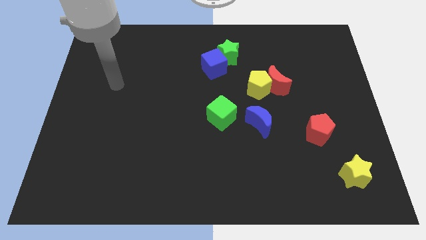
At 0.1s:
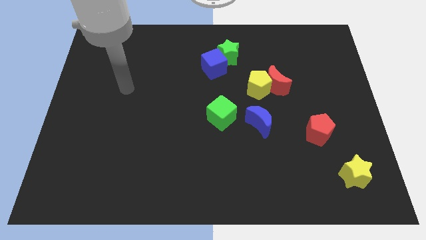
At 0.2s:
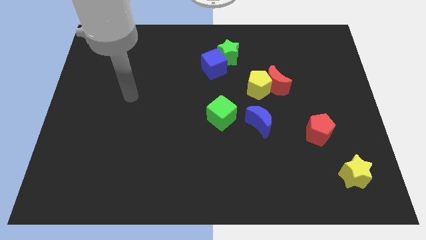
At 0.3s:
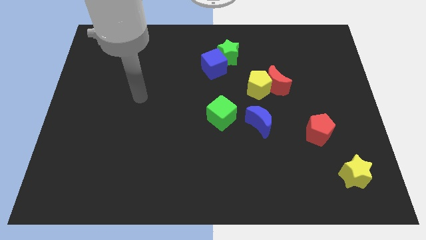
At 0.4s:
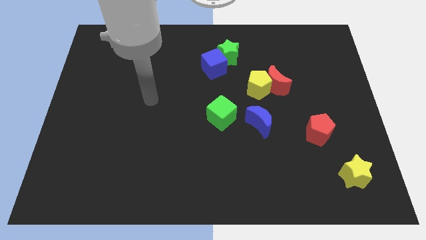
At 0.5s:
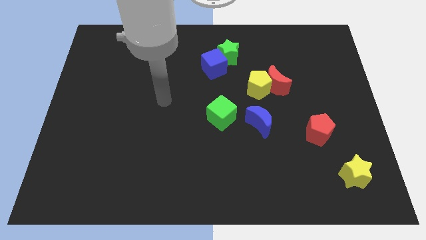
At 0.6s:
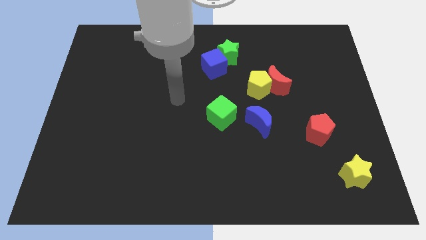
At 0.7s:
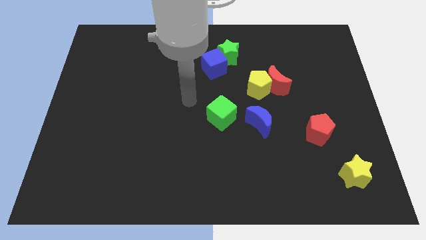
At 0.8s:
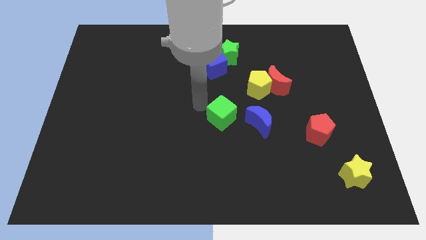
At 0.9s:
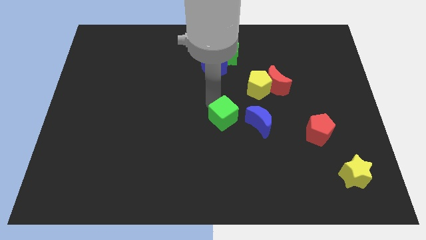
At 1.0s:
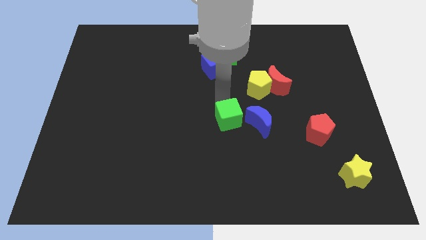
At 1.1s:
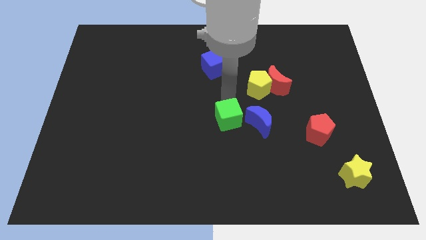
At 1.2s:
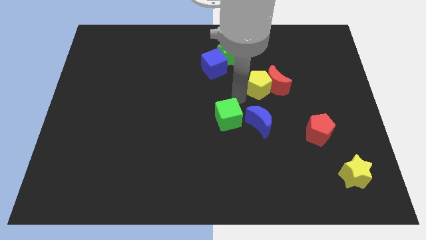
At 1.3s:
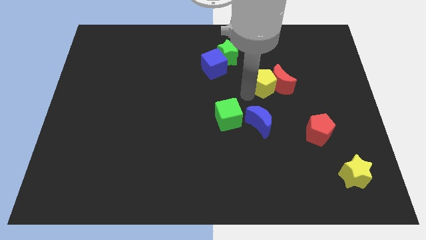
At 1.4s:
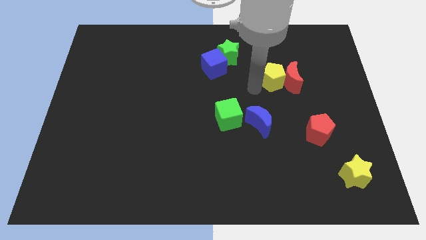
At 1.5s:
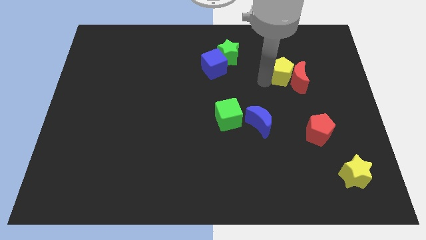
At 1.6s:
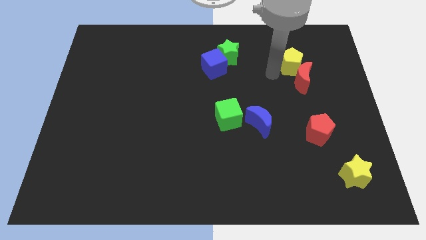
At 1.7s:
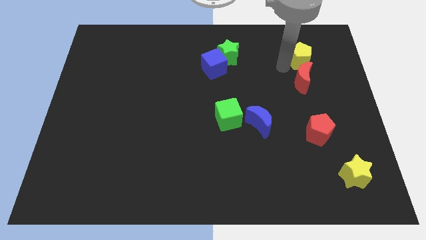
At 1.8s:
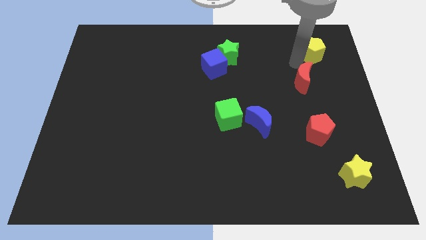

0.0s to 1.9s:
pull the red moon apart from the yellow pentagon

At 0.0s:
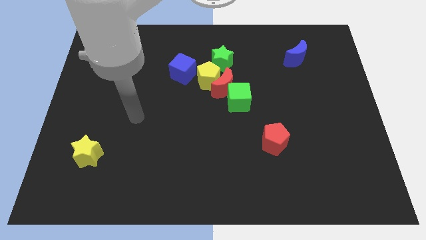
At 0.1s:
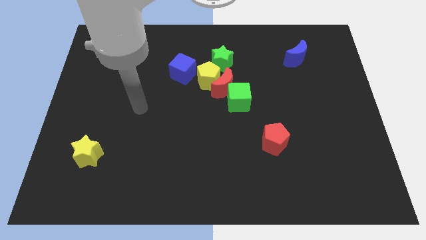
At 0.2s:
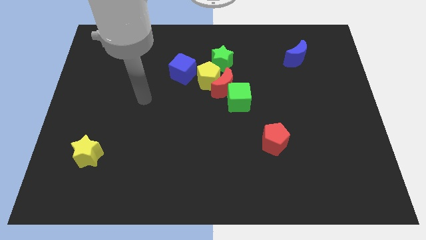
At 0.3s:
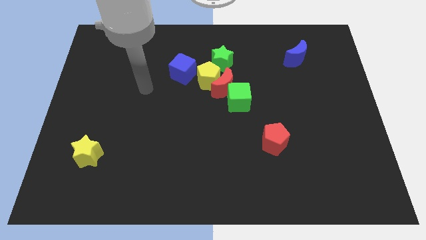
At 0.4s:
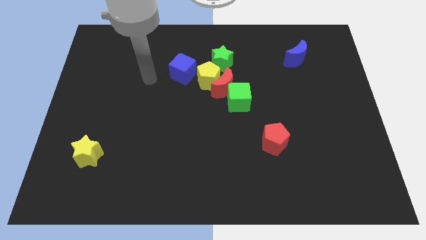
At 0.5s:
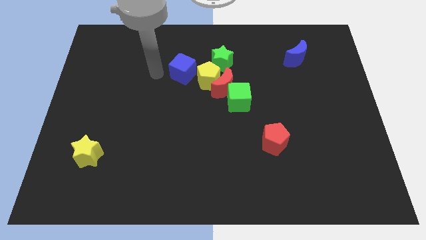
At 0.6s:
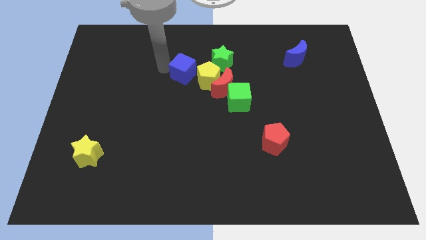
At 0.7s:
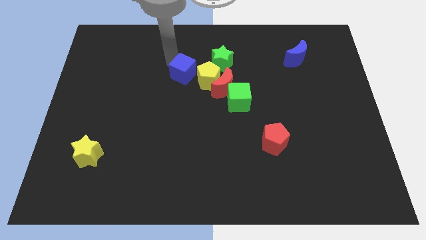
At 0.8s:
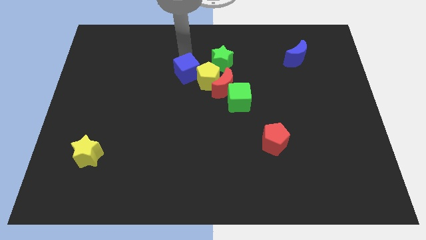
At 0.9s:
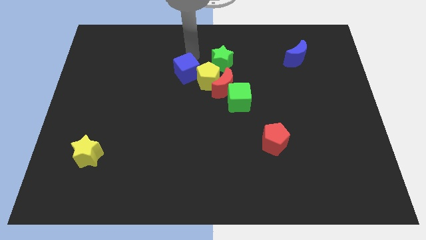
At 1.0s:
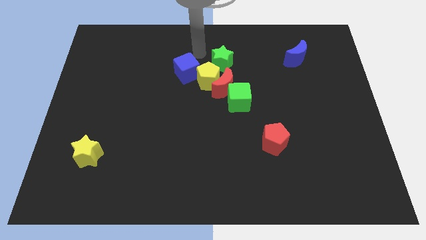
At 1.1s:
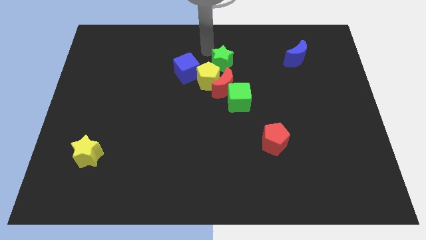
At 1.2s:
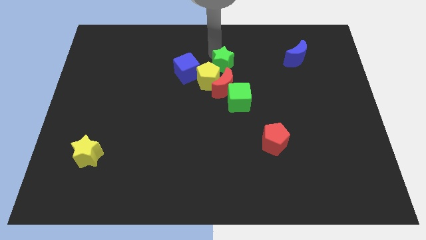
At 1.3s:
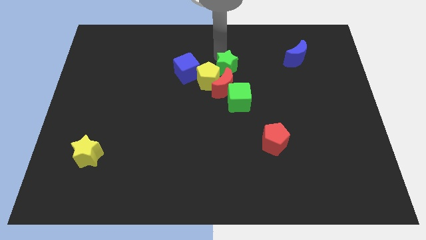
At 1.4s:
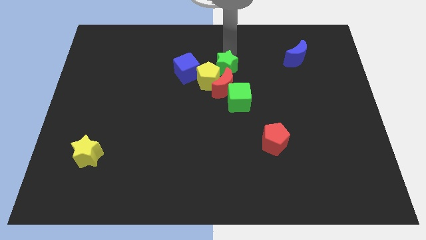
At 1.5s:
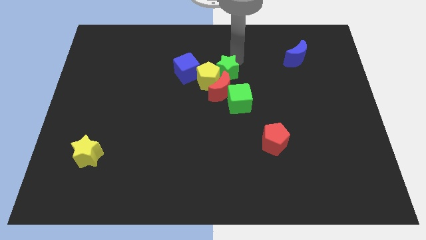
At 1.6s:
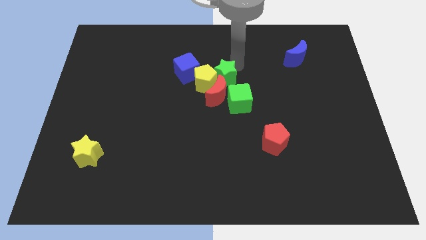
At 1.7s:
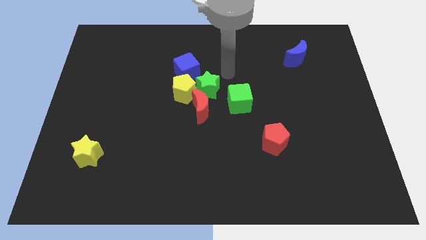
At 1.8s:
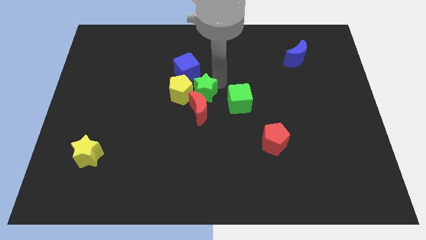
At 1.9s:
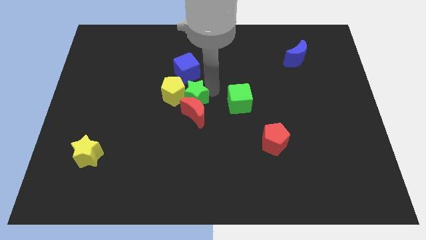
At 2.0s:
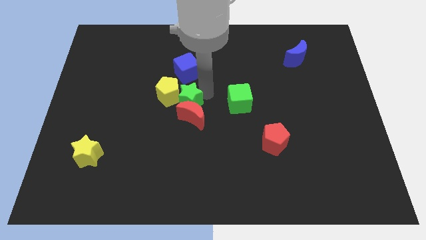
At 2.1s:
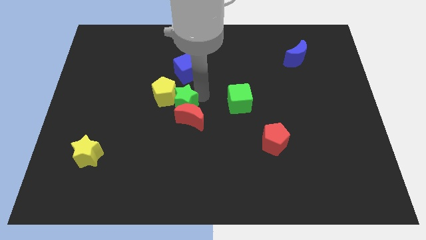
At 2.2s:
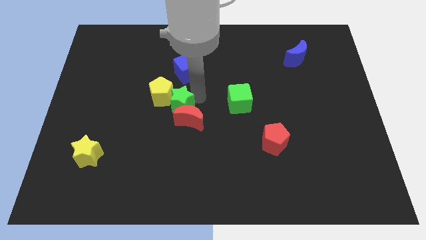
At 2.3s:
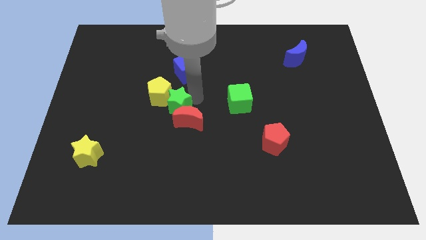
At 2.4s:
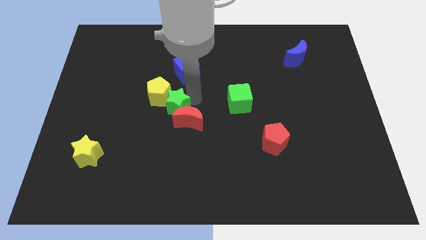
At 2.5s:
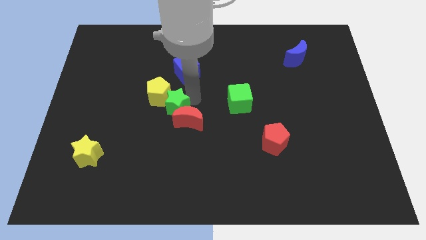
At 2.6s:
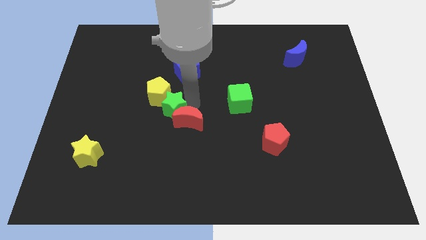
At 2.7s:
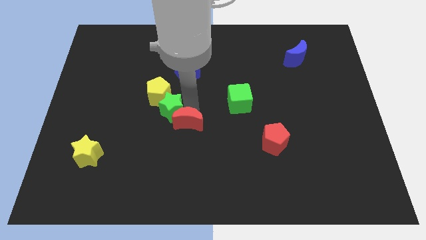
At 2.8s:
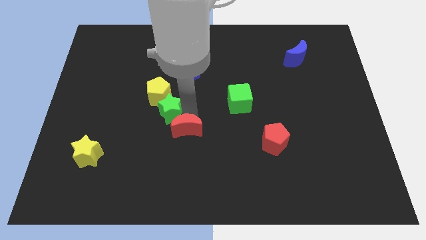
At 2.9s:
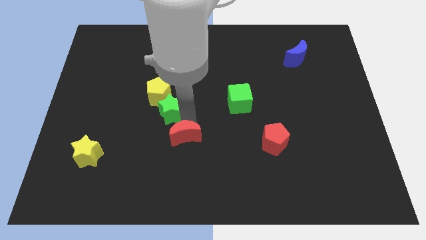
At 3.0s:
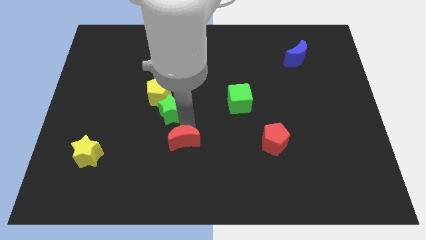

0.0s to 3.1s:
move the red moon away from the group

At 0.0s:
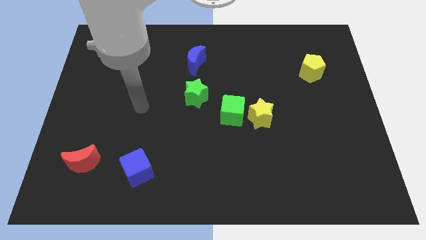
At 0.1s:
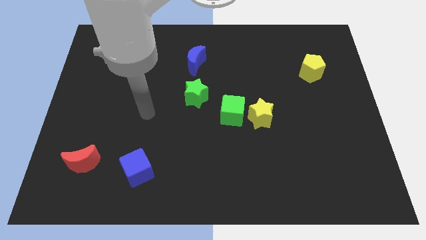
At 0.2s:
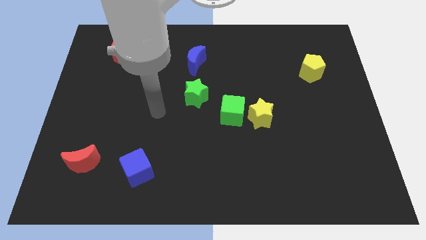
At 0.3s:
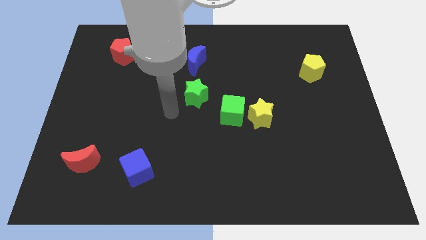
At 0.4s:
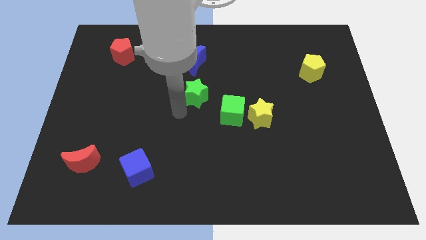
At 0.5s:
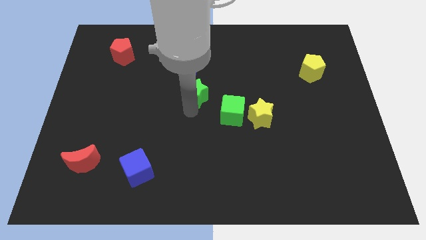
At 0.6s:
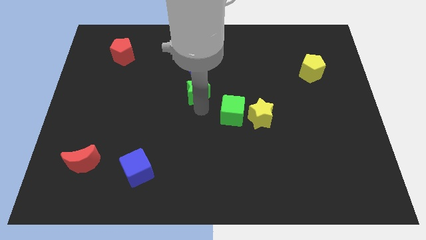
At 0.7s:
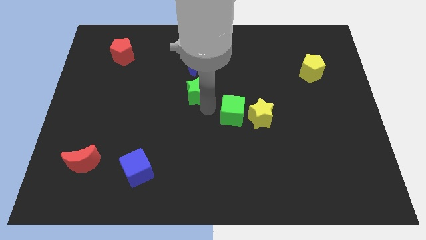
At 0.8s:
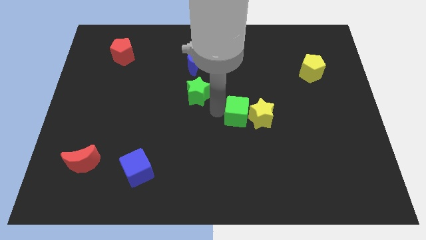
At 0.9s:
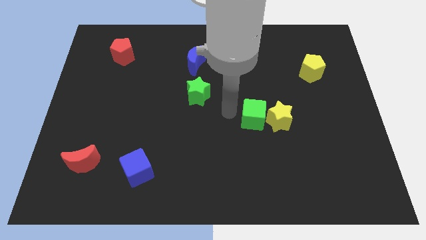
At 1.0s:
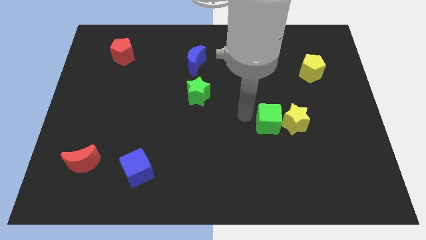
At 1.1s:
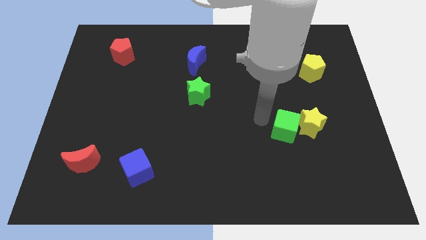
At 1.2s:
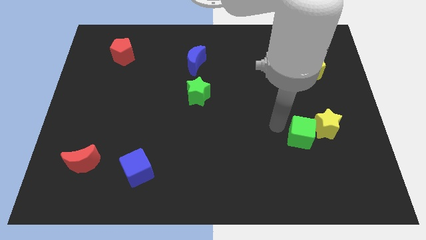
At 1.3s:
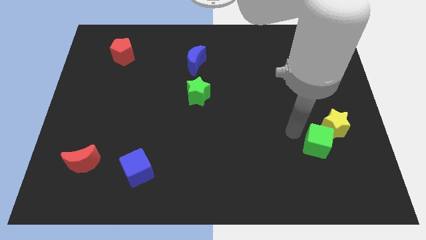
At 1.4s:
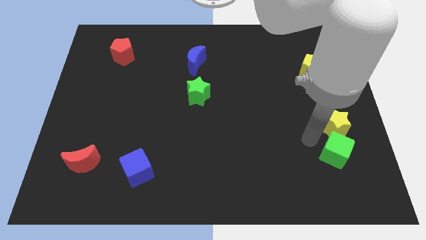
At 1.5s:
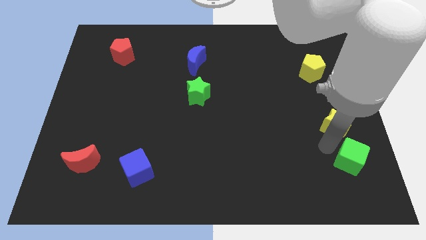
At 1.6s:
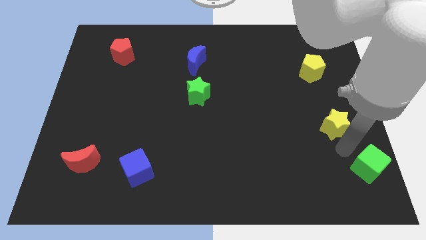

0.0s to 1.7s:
move the yellow star away from the green cube

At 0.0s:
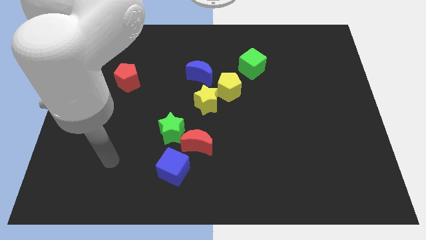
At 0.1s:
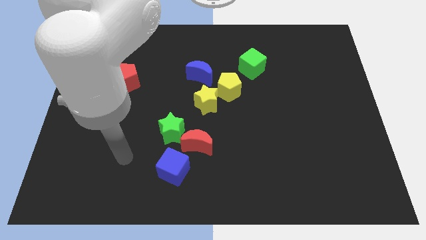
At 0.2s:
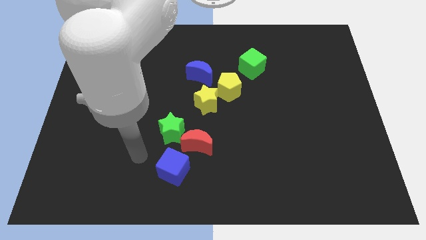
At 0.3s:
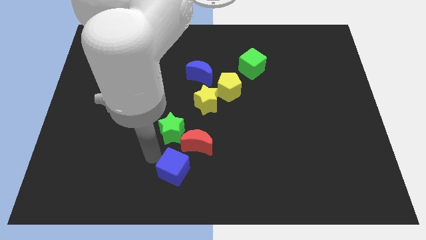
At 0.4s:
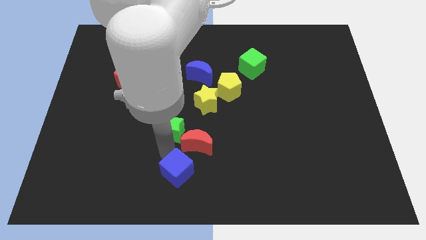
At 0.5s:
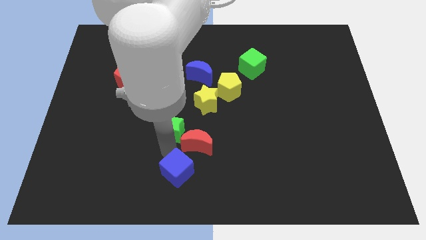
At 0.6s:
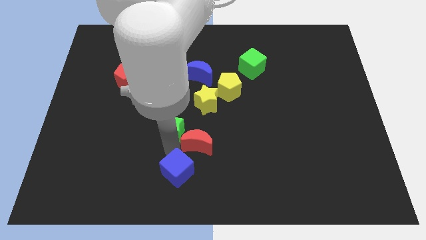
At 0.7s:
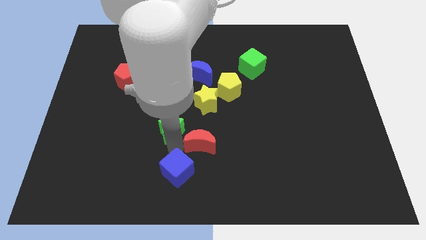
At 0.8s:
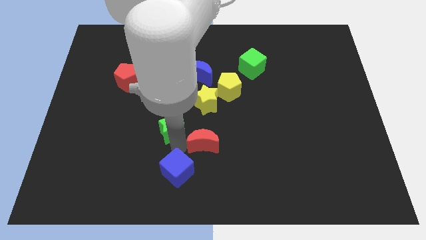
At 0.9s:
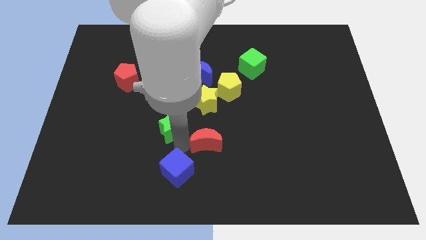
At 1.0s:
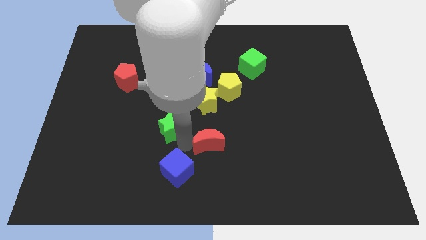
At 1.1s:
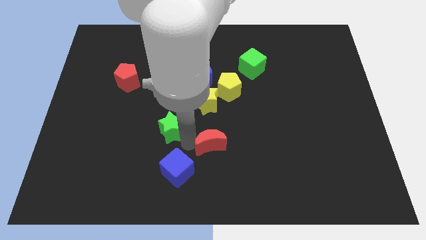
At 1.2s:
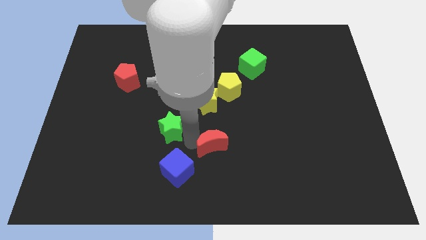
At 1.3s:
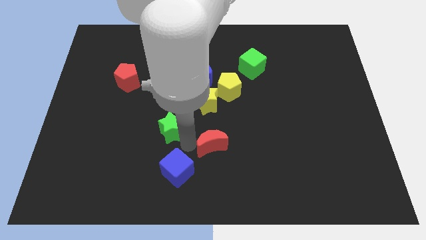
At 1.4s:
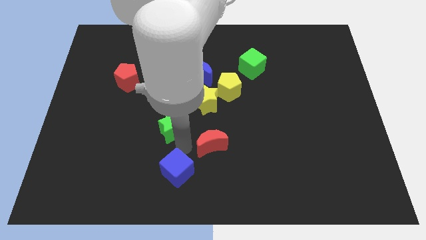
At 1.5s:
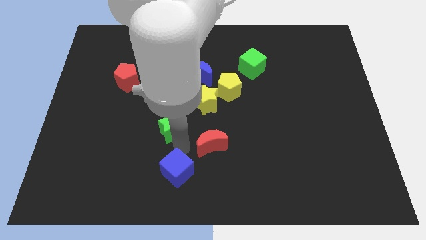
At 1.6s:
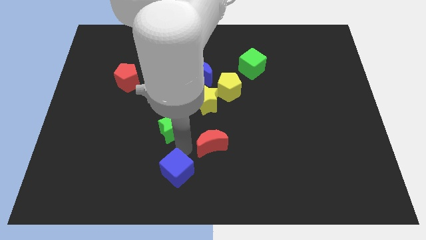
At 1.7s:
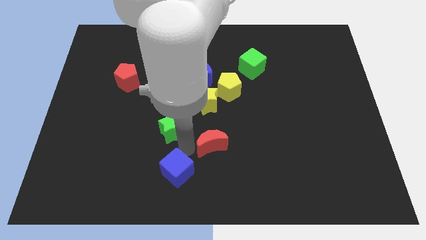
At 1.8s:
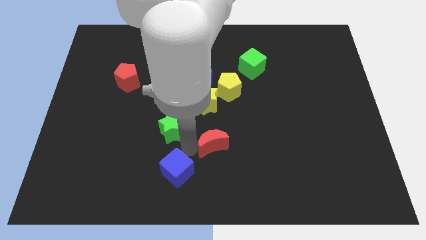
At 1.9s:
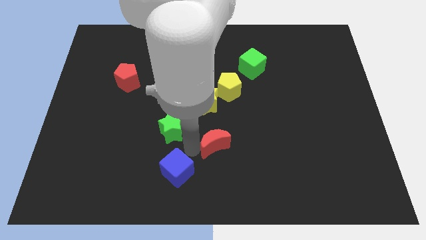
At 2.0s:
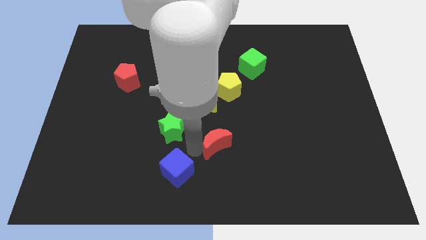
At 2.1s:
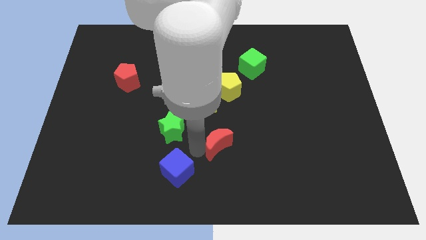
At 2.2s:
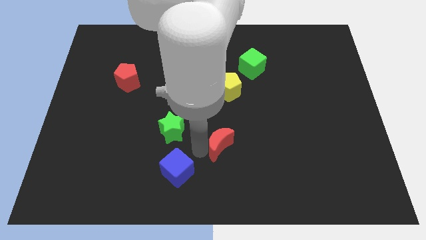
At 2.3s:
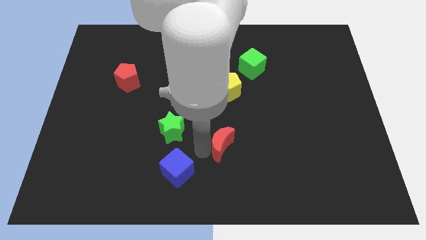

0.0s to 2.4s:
separate the red moon from the green star and blue cube

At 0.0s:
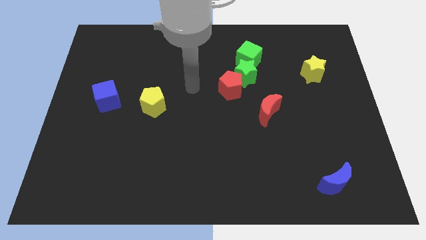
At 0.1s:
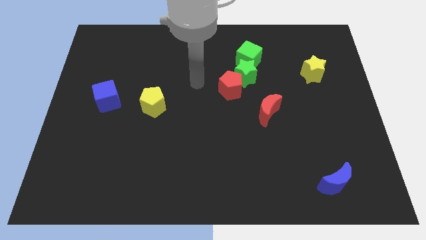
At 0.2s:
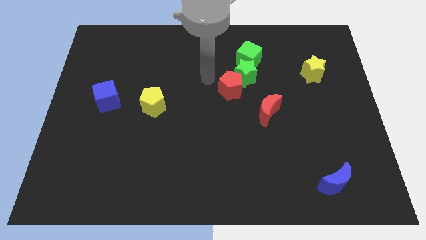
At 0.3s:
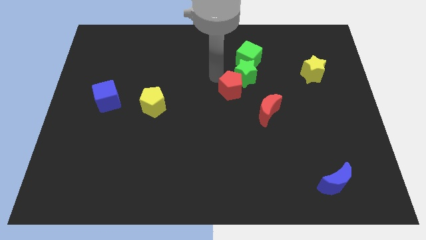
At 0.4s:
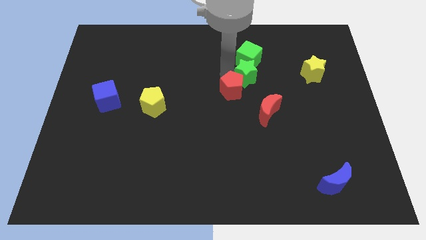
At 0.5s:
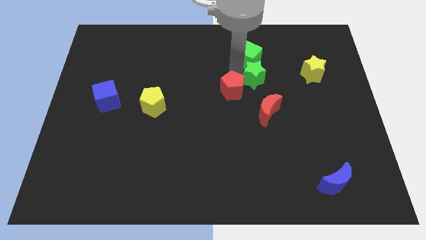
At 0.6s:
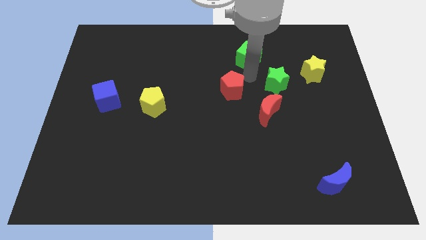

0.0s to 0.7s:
pull the red pentagon apart from the green star
